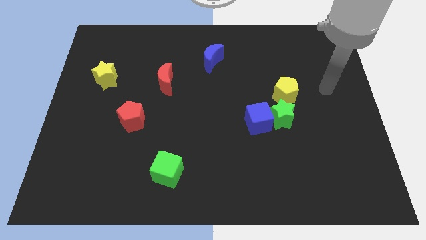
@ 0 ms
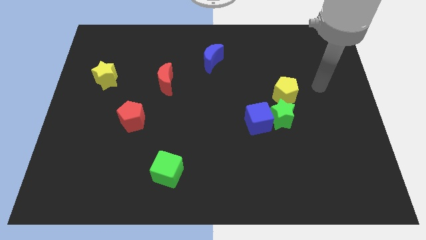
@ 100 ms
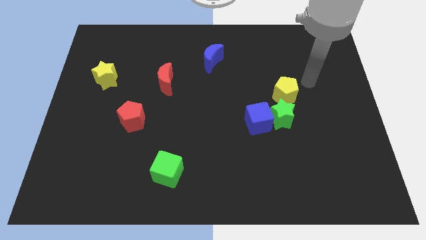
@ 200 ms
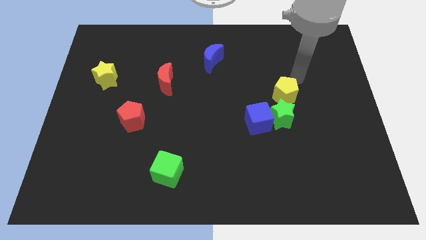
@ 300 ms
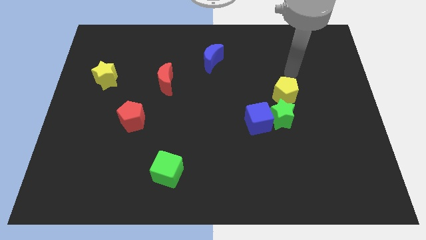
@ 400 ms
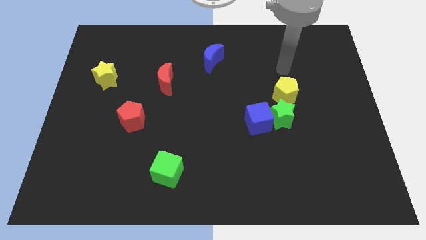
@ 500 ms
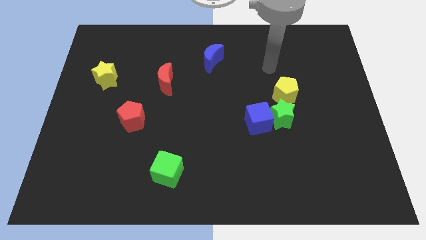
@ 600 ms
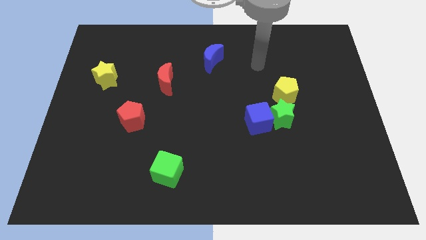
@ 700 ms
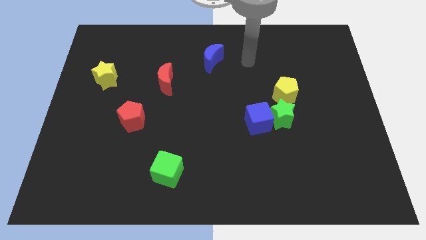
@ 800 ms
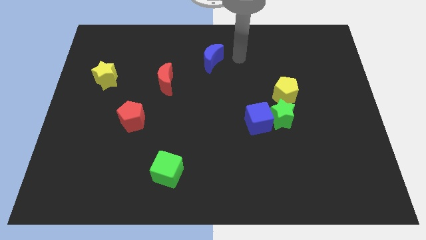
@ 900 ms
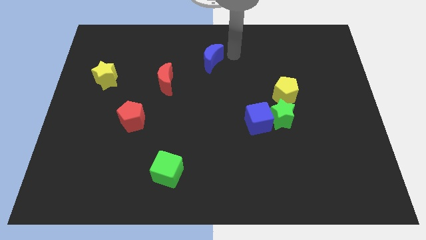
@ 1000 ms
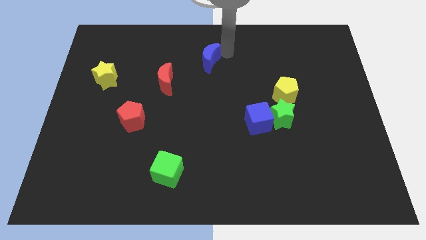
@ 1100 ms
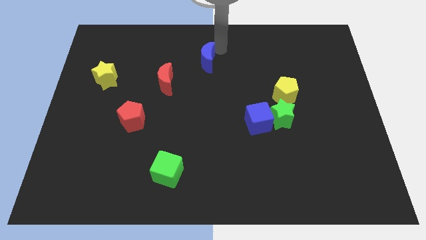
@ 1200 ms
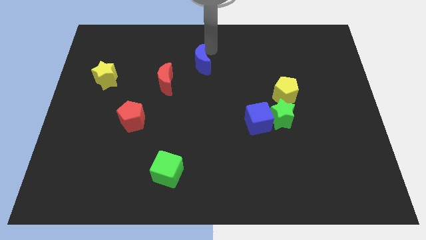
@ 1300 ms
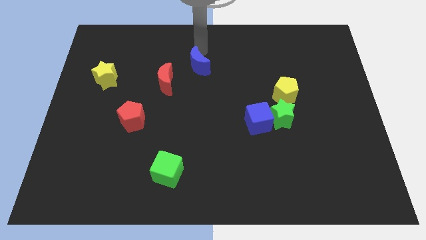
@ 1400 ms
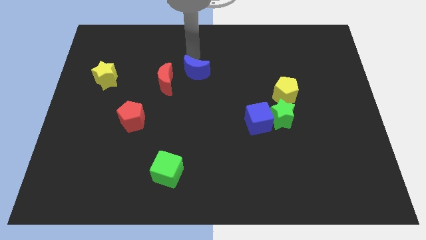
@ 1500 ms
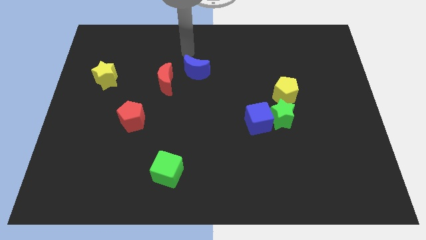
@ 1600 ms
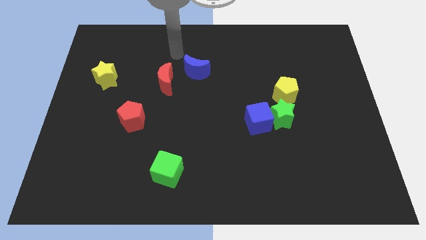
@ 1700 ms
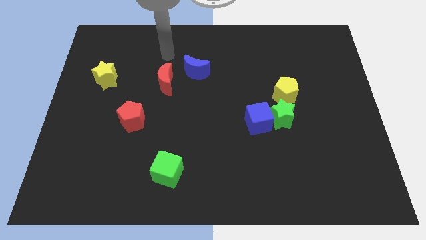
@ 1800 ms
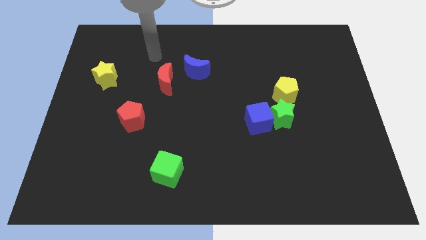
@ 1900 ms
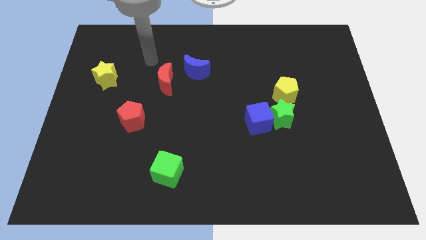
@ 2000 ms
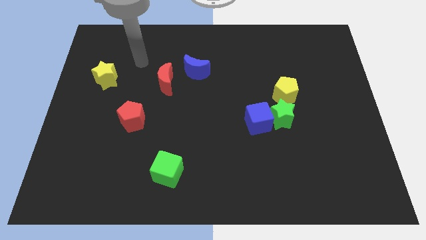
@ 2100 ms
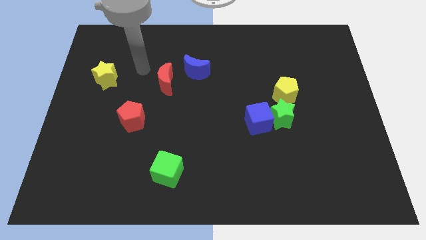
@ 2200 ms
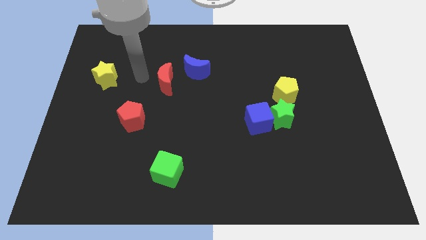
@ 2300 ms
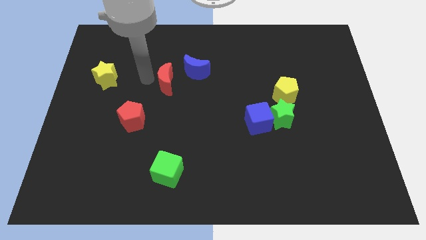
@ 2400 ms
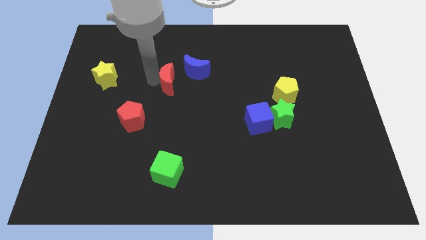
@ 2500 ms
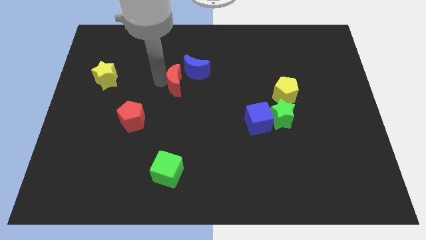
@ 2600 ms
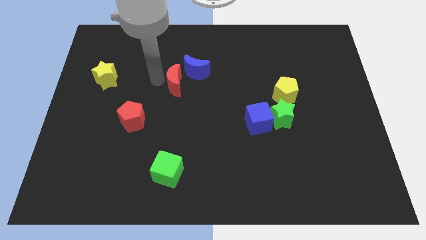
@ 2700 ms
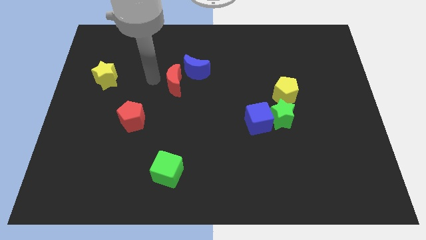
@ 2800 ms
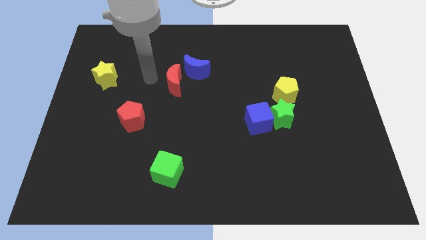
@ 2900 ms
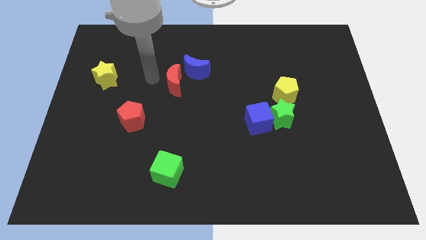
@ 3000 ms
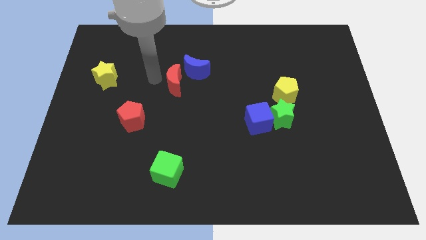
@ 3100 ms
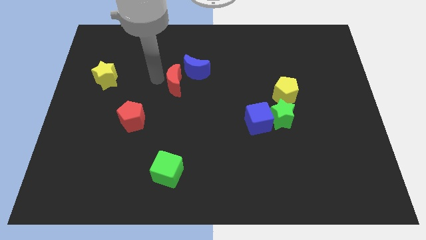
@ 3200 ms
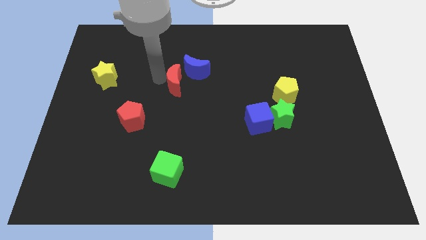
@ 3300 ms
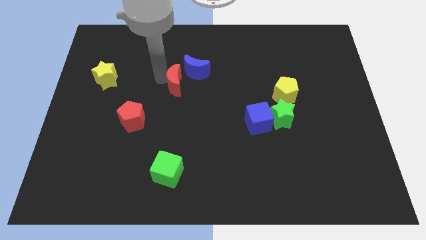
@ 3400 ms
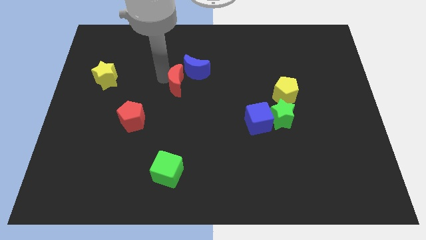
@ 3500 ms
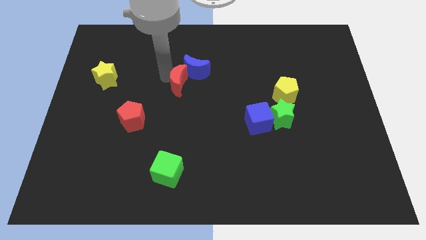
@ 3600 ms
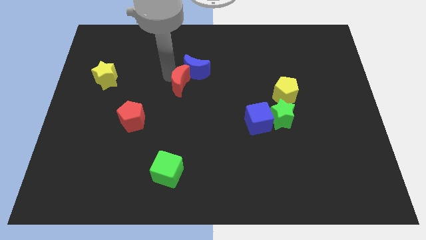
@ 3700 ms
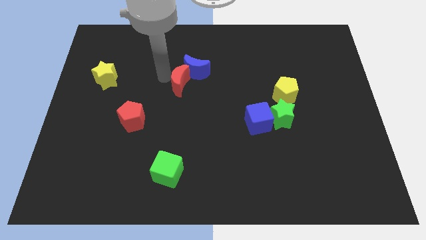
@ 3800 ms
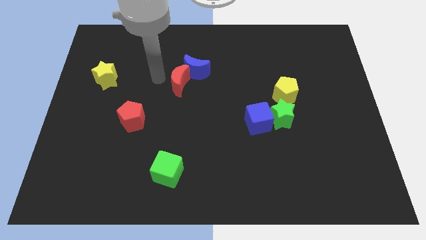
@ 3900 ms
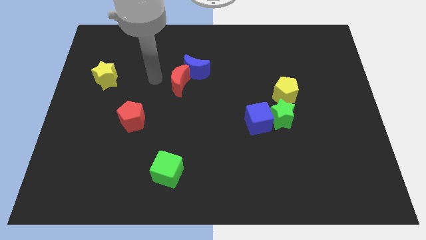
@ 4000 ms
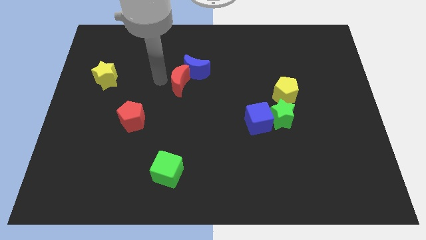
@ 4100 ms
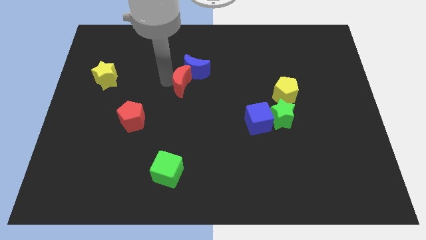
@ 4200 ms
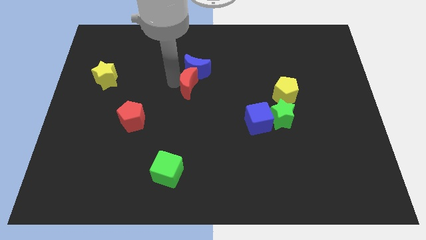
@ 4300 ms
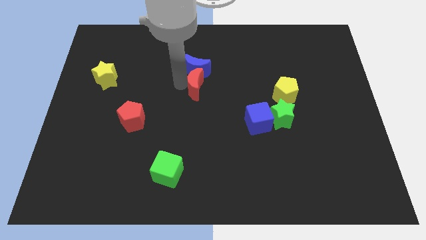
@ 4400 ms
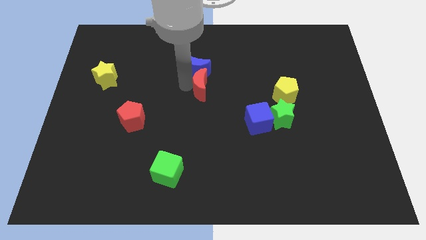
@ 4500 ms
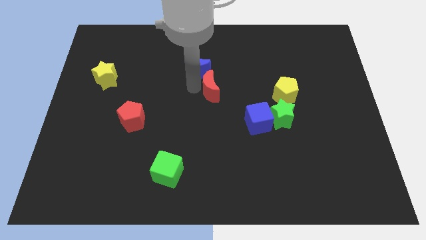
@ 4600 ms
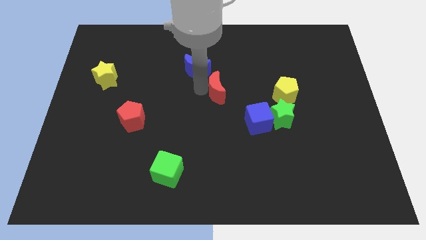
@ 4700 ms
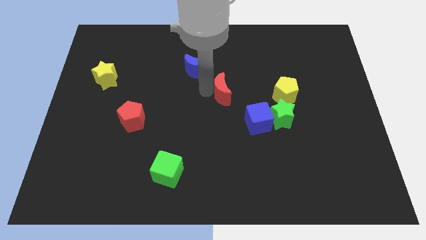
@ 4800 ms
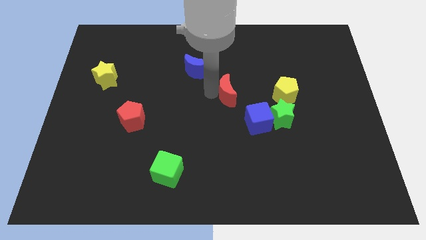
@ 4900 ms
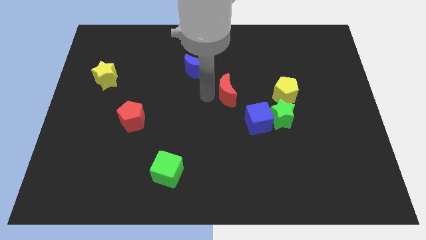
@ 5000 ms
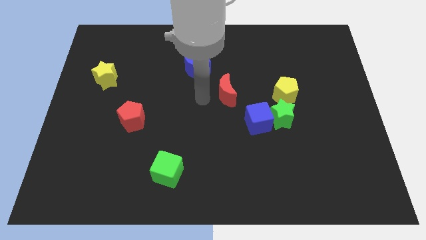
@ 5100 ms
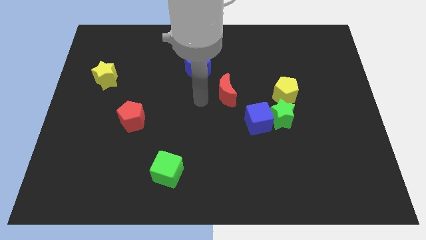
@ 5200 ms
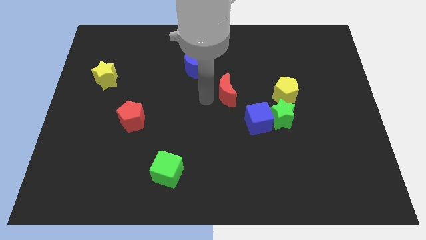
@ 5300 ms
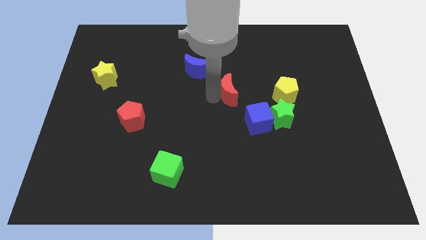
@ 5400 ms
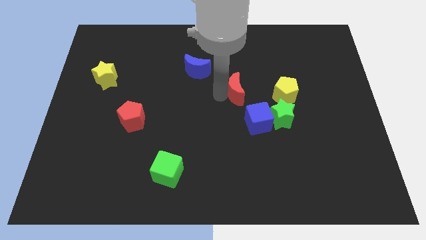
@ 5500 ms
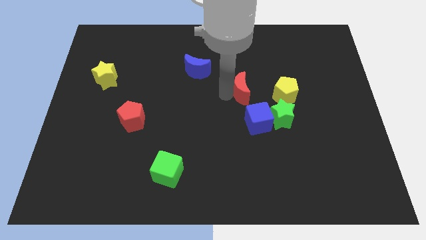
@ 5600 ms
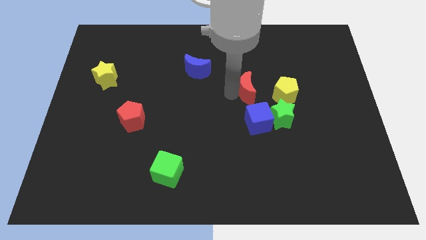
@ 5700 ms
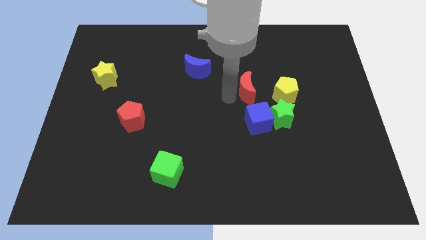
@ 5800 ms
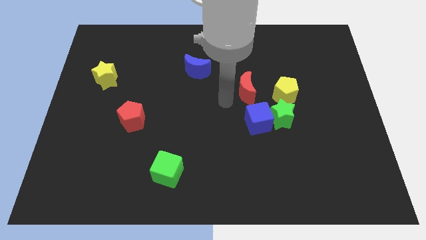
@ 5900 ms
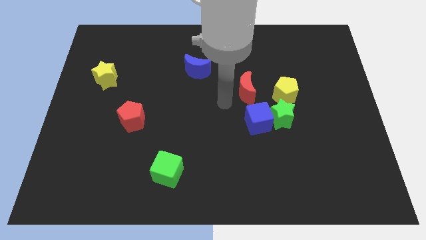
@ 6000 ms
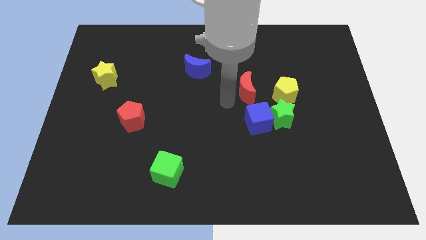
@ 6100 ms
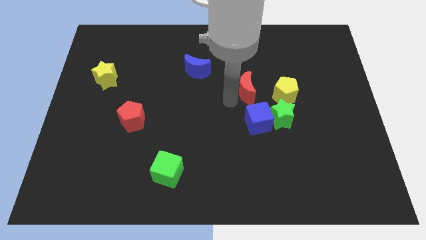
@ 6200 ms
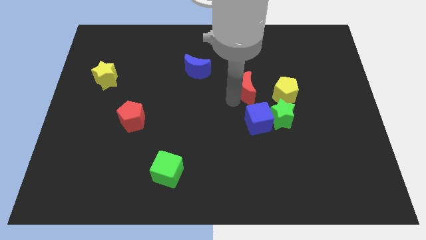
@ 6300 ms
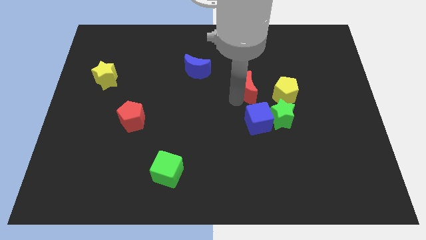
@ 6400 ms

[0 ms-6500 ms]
move the red moon to the right

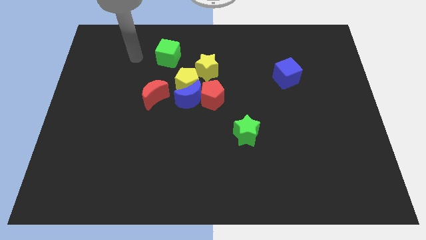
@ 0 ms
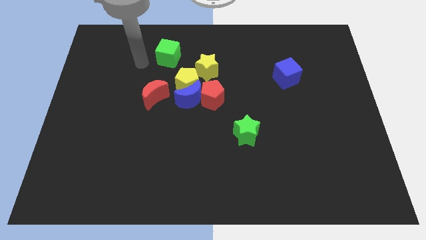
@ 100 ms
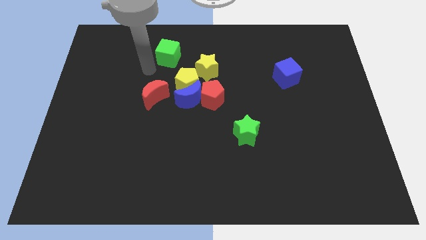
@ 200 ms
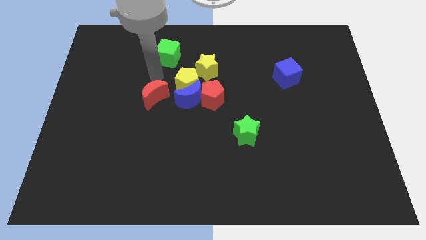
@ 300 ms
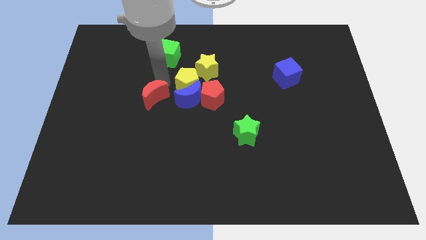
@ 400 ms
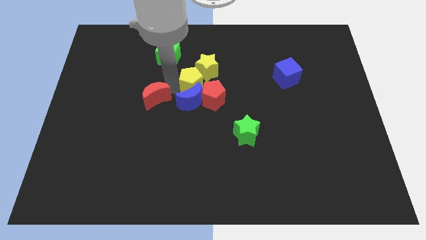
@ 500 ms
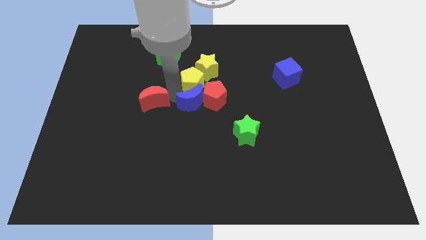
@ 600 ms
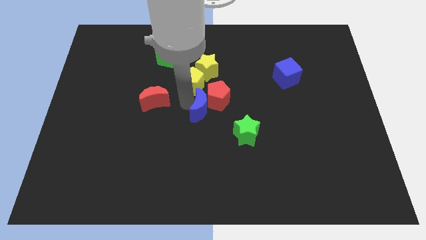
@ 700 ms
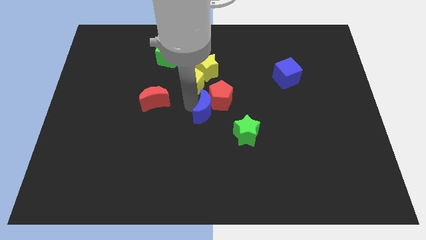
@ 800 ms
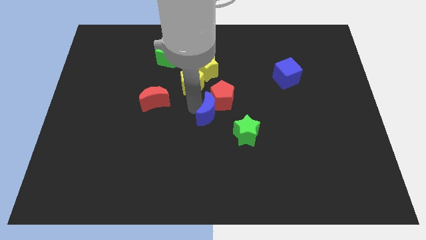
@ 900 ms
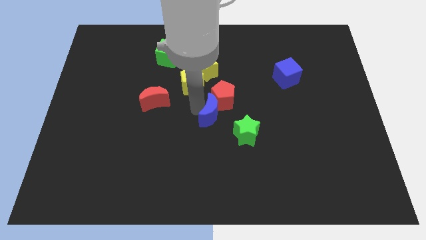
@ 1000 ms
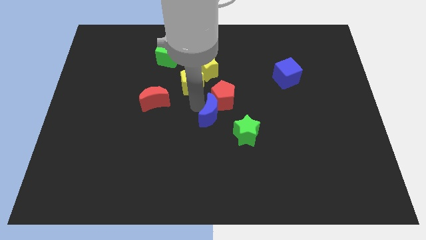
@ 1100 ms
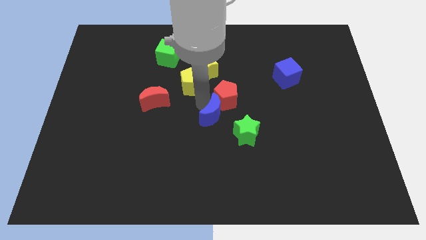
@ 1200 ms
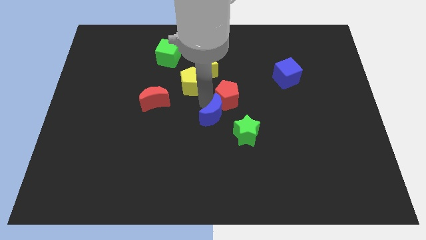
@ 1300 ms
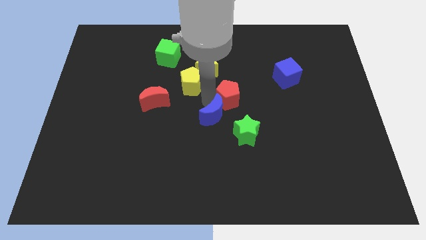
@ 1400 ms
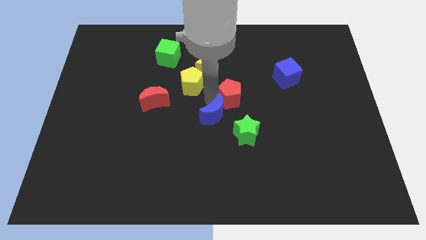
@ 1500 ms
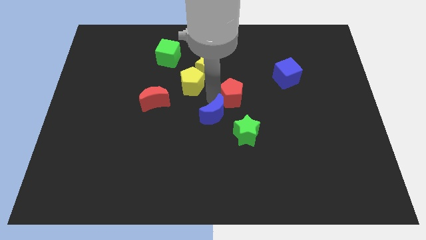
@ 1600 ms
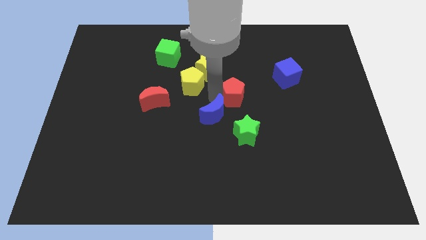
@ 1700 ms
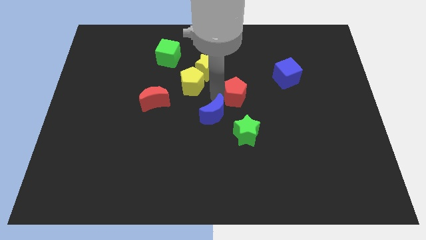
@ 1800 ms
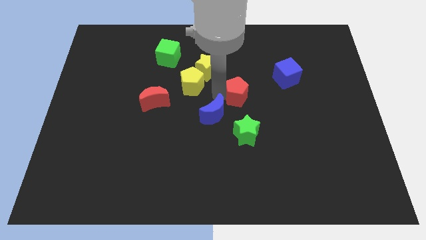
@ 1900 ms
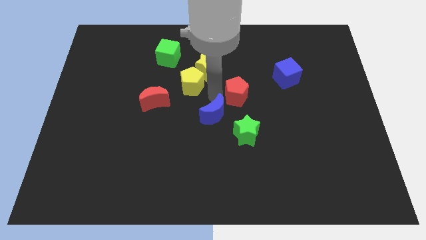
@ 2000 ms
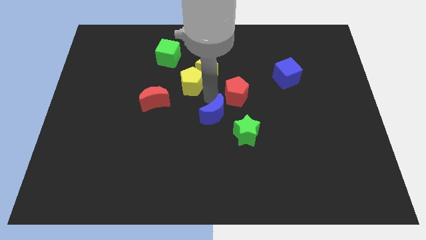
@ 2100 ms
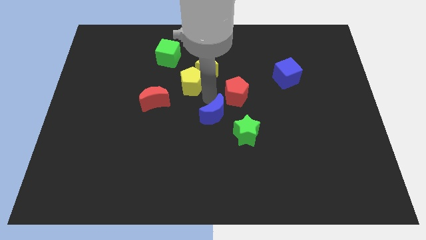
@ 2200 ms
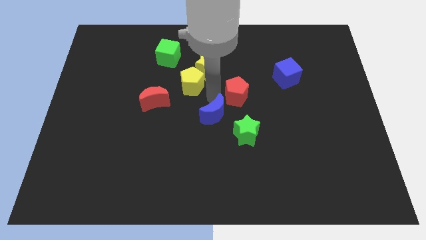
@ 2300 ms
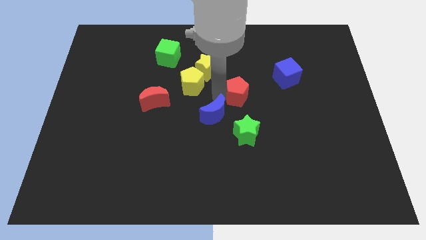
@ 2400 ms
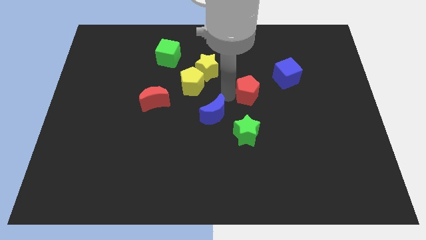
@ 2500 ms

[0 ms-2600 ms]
slightly slide the red pentagon right
